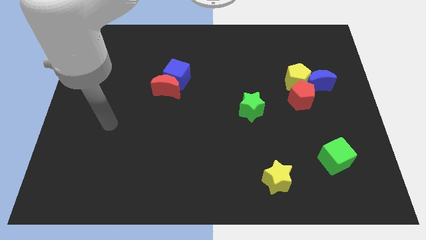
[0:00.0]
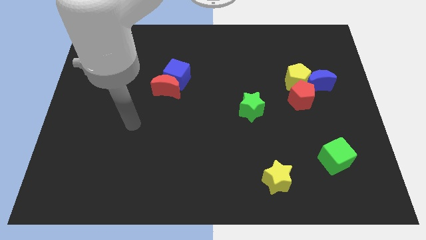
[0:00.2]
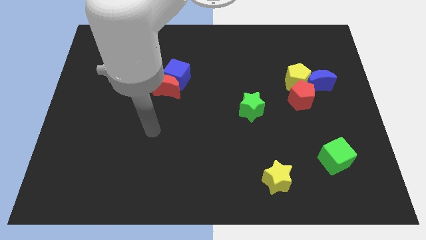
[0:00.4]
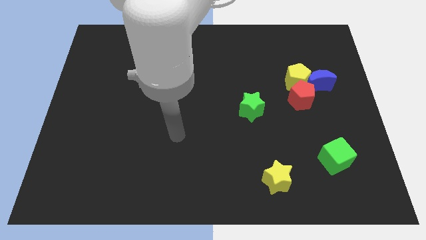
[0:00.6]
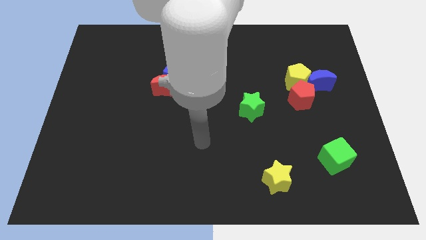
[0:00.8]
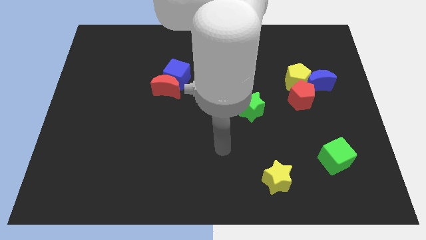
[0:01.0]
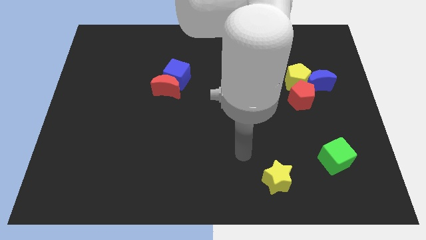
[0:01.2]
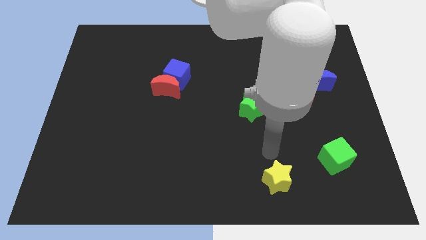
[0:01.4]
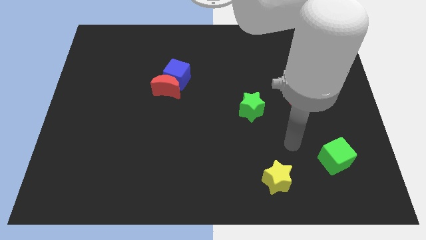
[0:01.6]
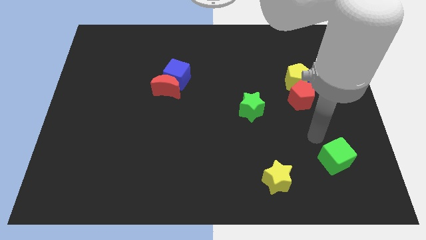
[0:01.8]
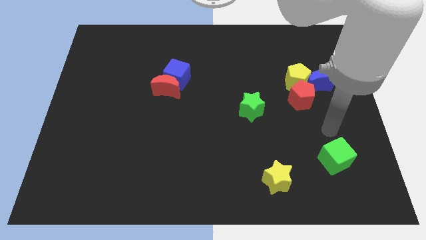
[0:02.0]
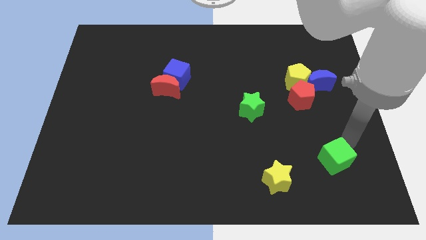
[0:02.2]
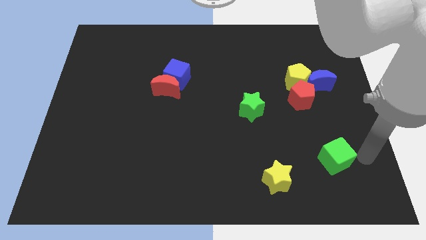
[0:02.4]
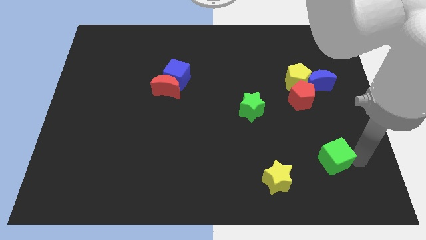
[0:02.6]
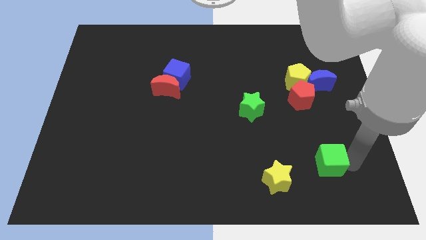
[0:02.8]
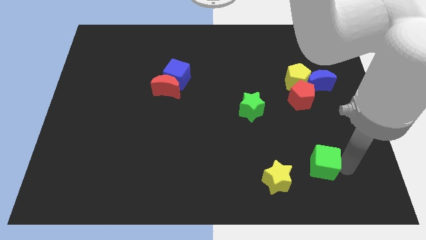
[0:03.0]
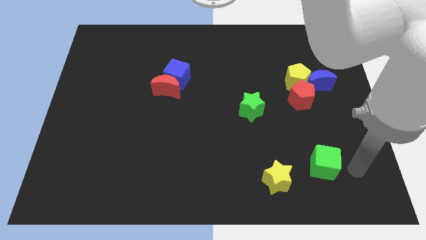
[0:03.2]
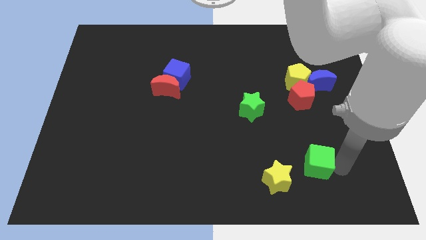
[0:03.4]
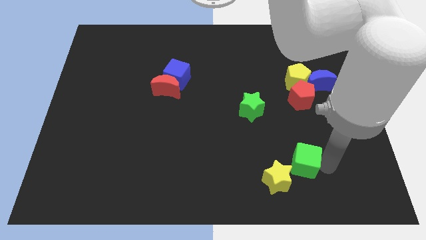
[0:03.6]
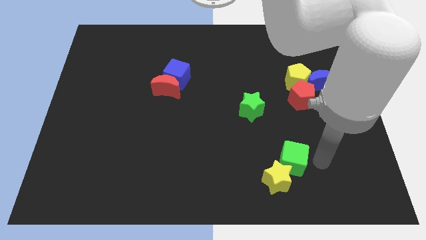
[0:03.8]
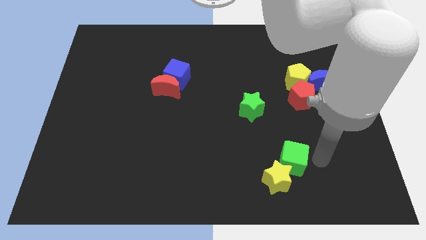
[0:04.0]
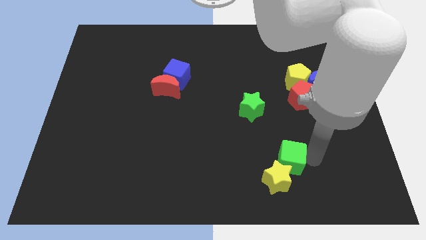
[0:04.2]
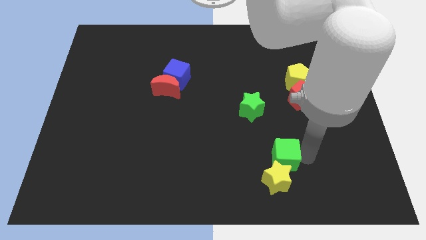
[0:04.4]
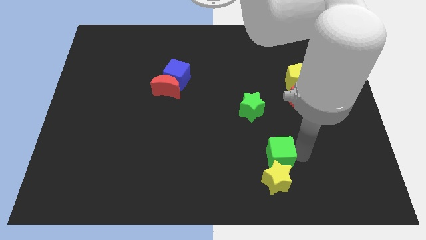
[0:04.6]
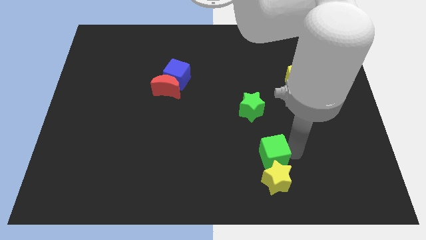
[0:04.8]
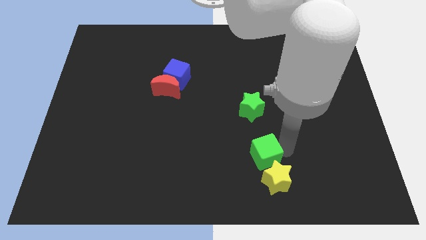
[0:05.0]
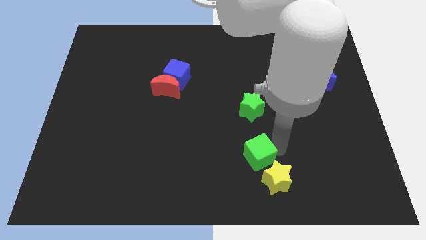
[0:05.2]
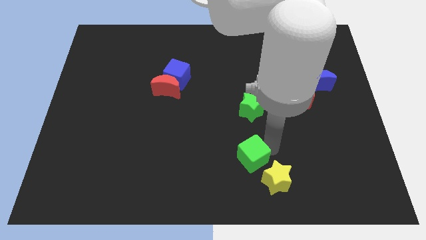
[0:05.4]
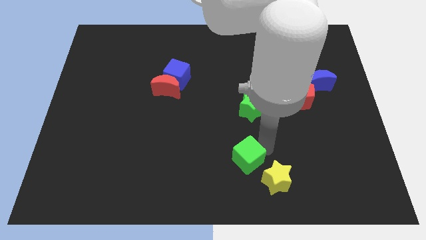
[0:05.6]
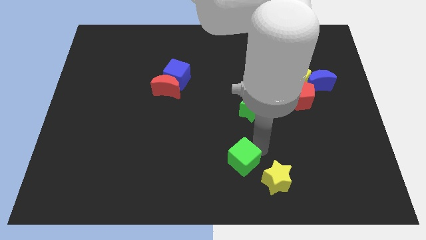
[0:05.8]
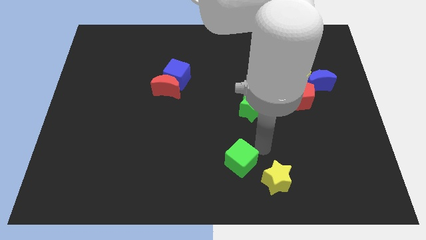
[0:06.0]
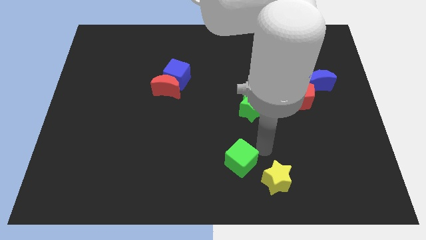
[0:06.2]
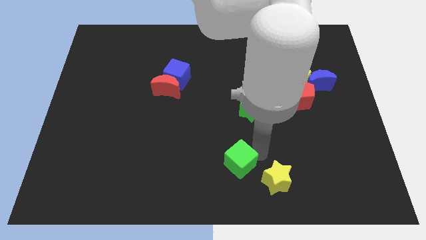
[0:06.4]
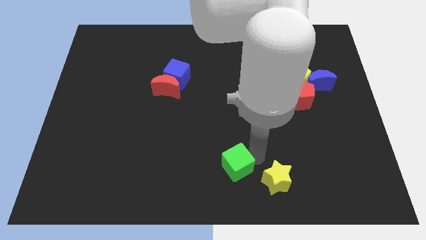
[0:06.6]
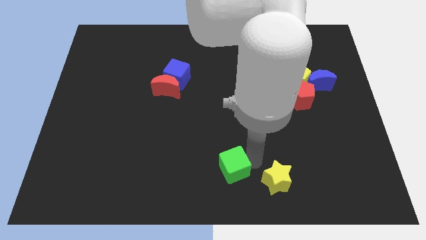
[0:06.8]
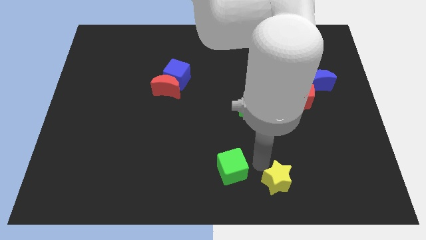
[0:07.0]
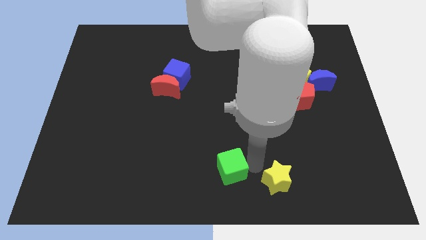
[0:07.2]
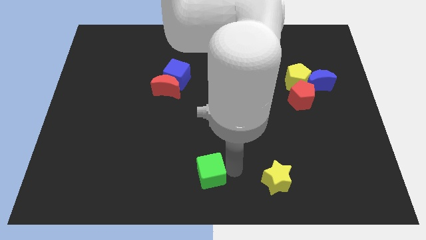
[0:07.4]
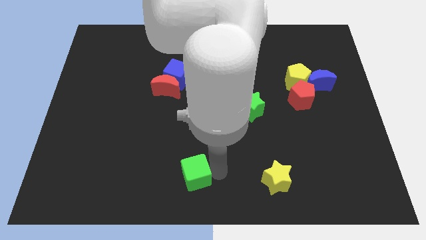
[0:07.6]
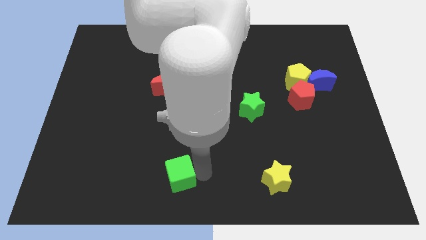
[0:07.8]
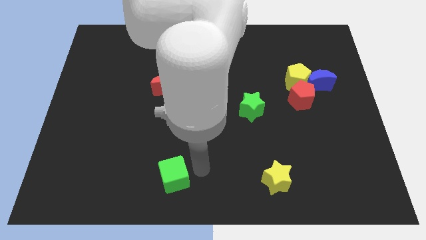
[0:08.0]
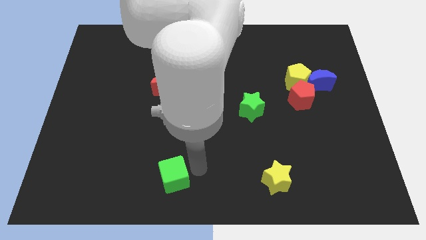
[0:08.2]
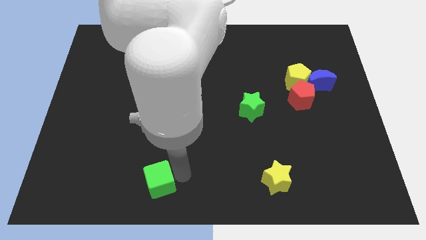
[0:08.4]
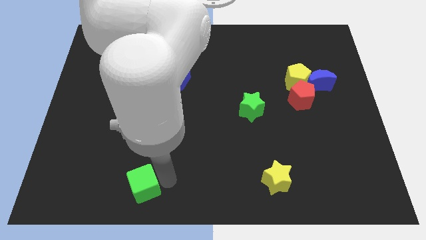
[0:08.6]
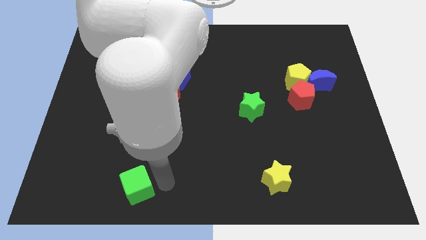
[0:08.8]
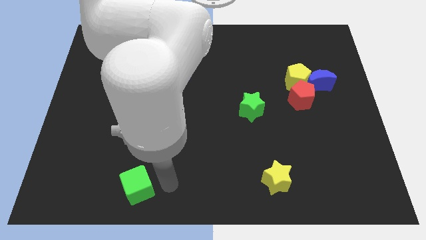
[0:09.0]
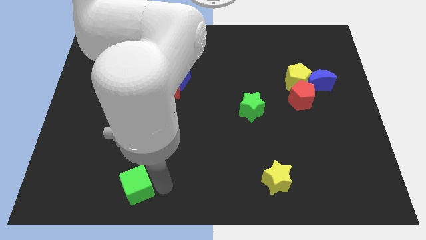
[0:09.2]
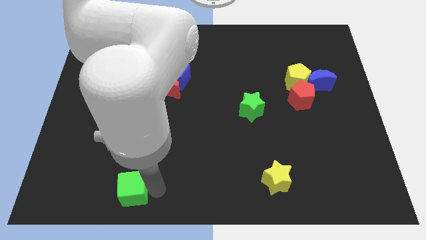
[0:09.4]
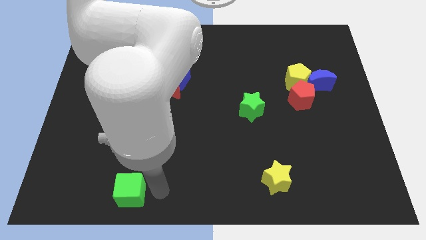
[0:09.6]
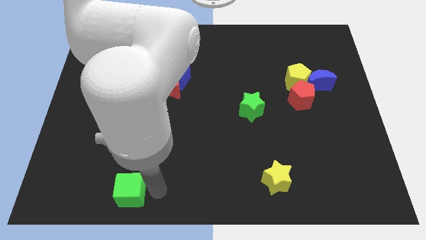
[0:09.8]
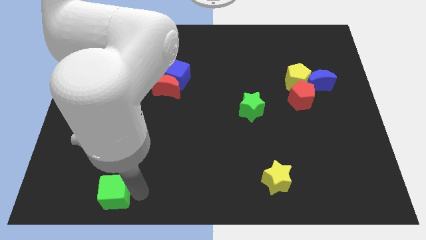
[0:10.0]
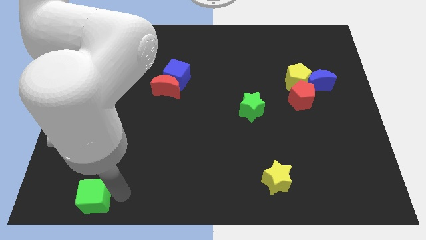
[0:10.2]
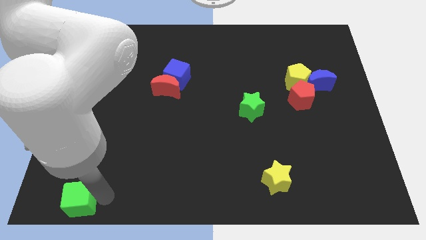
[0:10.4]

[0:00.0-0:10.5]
push the green cube to the bottom left
